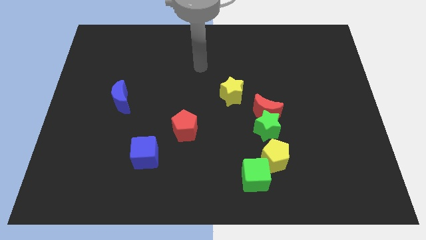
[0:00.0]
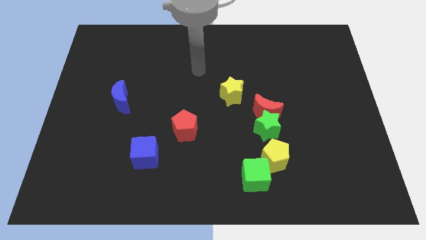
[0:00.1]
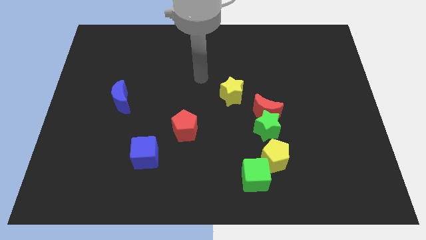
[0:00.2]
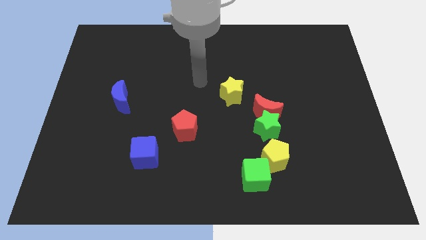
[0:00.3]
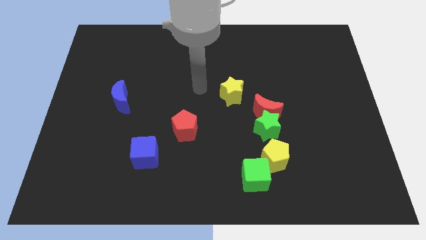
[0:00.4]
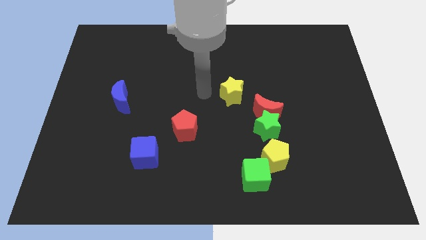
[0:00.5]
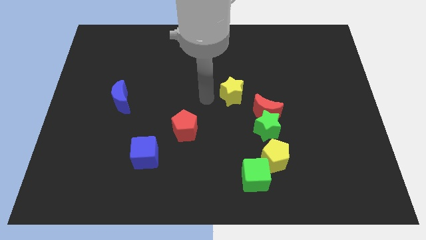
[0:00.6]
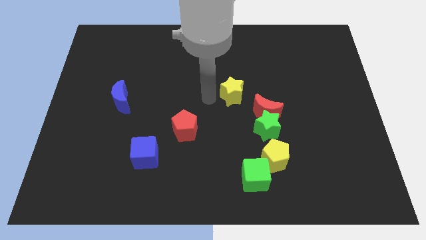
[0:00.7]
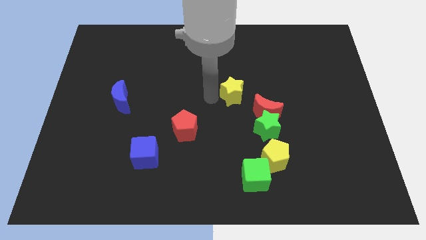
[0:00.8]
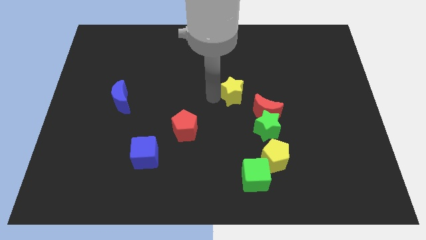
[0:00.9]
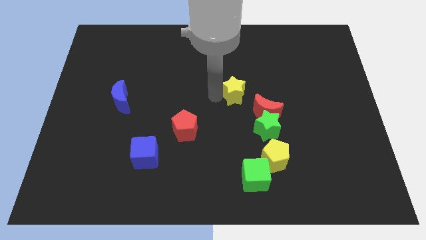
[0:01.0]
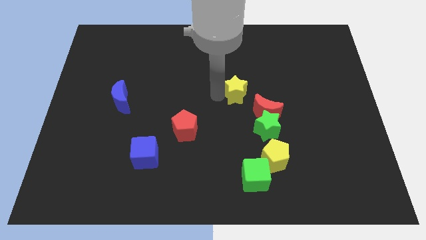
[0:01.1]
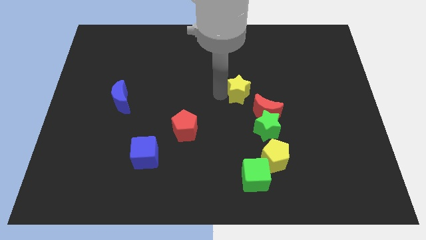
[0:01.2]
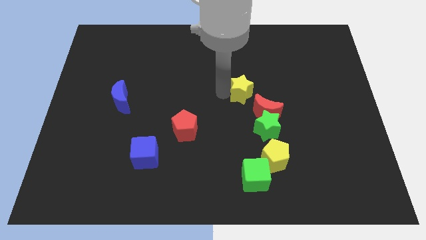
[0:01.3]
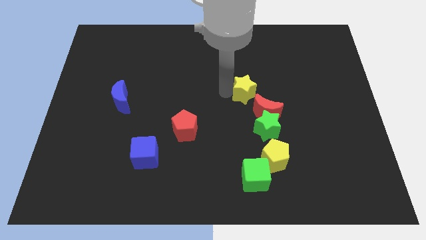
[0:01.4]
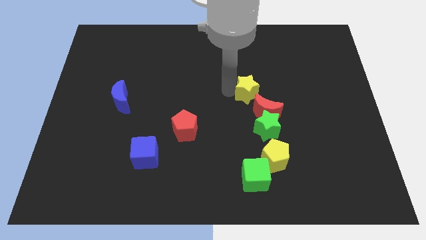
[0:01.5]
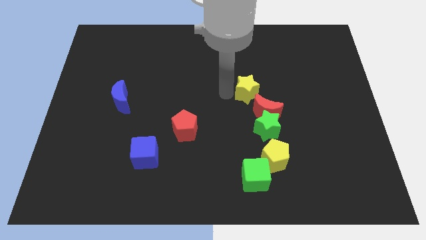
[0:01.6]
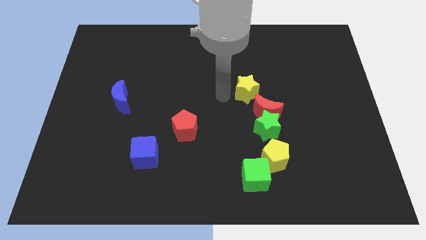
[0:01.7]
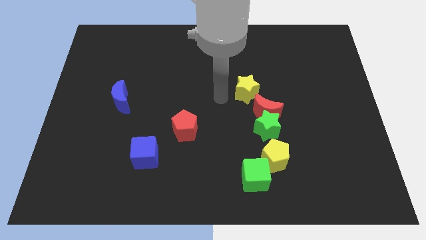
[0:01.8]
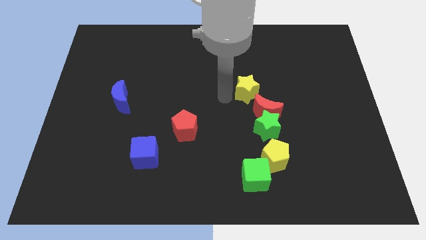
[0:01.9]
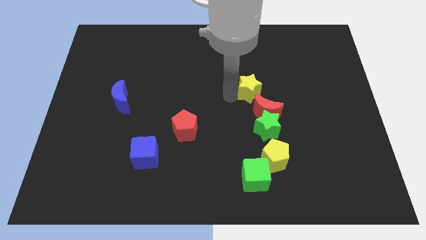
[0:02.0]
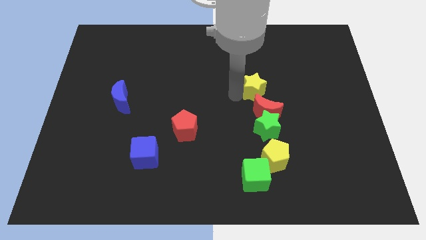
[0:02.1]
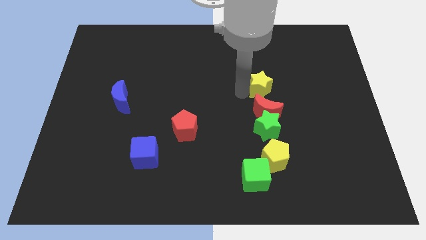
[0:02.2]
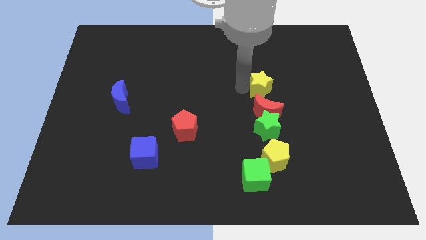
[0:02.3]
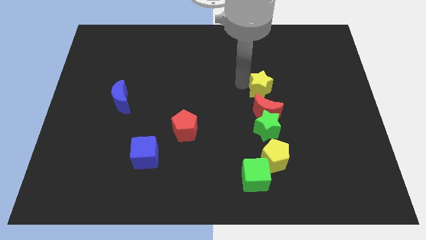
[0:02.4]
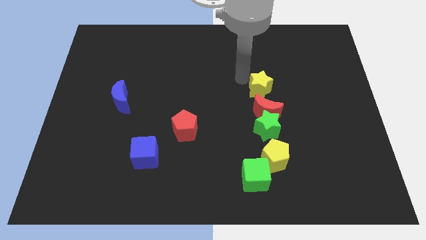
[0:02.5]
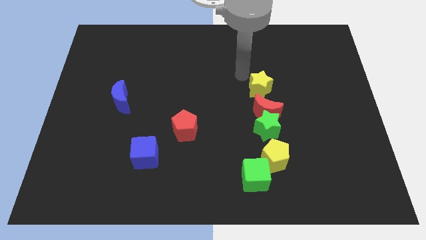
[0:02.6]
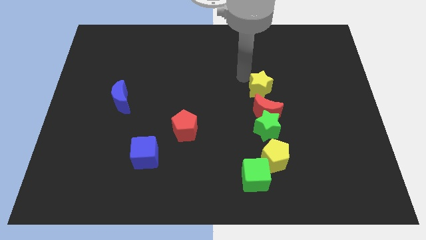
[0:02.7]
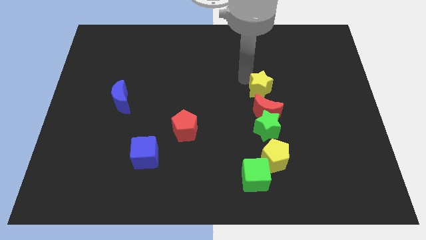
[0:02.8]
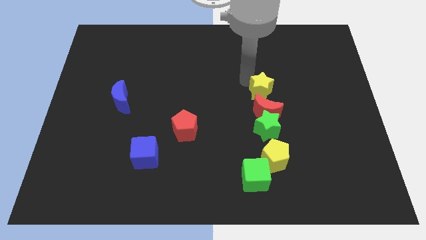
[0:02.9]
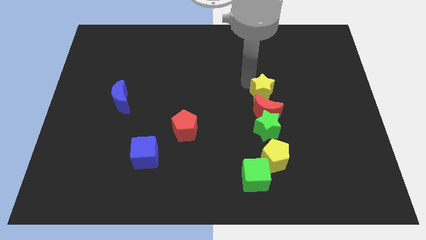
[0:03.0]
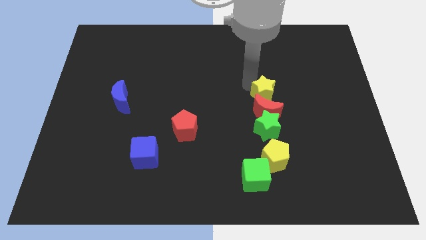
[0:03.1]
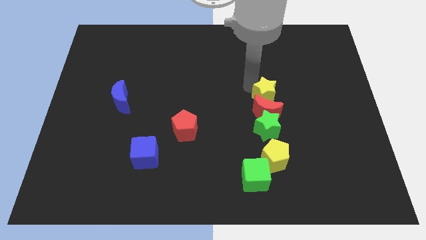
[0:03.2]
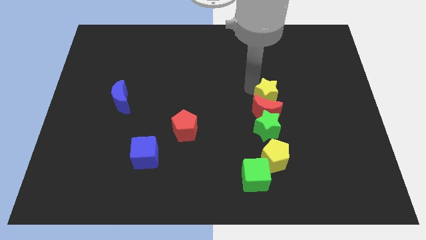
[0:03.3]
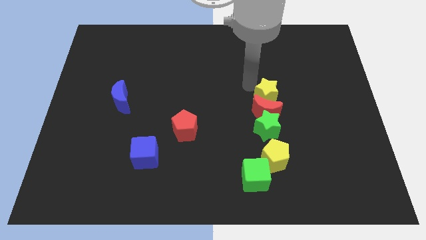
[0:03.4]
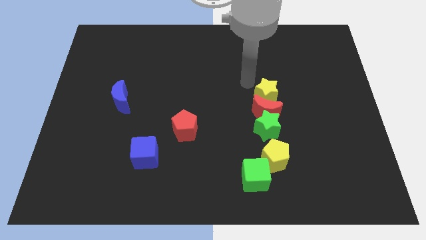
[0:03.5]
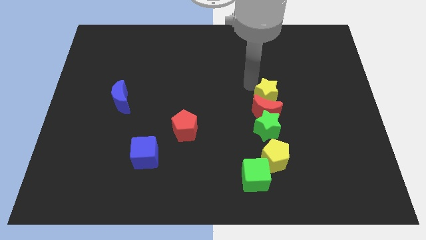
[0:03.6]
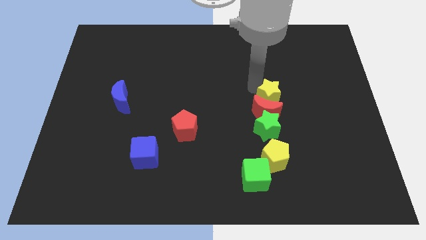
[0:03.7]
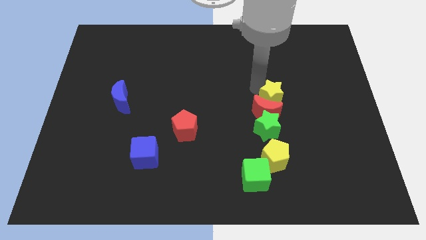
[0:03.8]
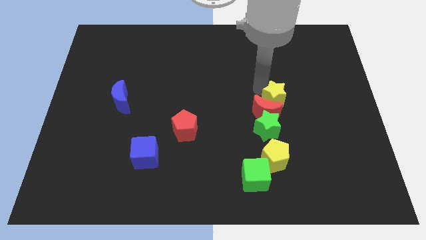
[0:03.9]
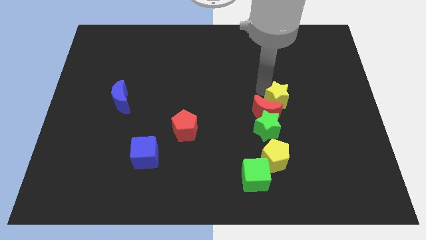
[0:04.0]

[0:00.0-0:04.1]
slightly move the yellow star down and to the right diagonally

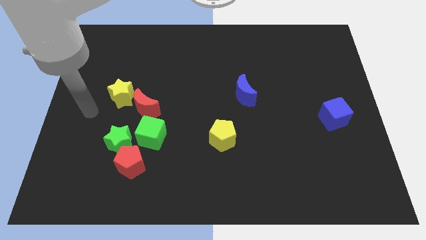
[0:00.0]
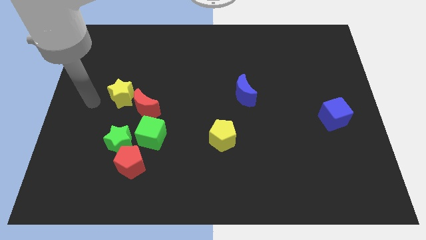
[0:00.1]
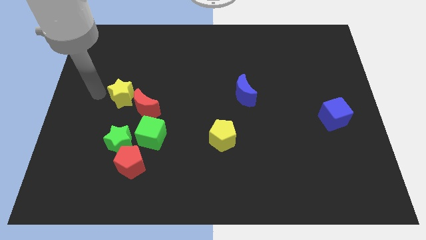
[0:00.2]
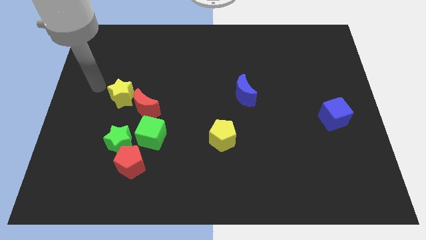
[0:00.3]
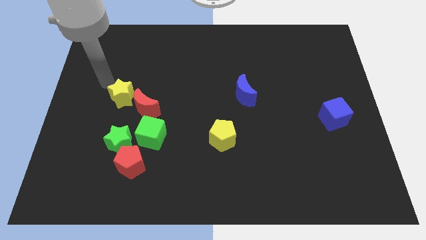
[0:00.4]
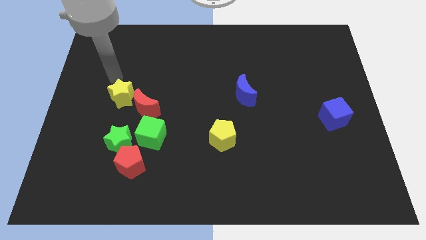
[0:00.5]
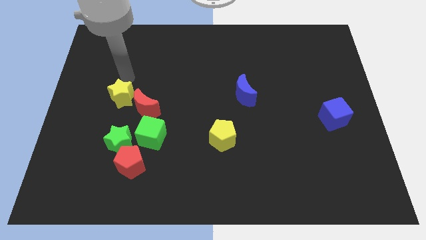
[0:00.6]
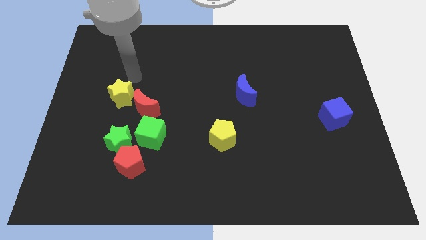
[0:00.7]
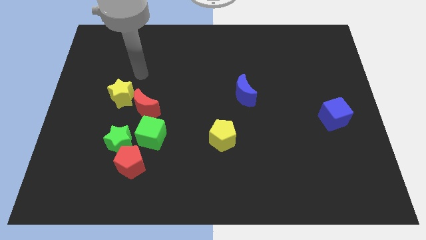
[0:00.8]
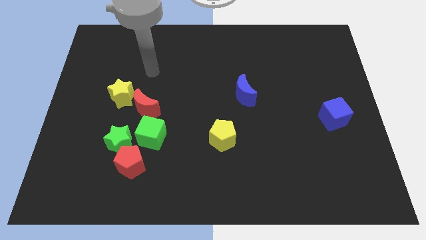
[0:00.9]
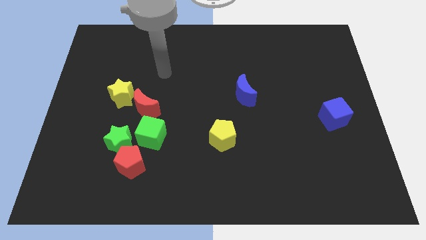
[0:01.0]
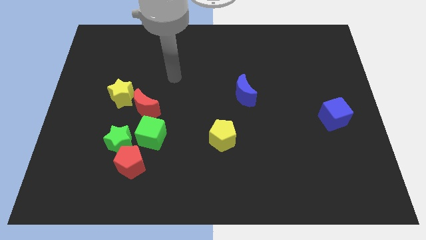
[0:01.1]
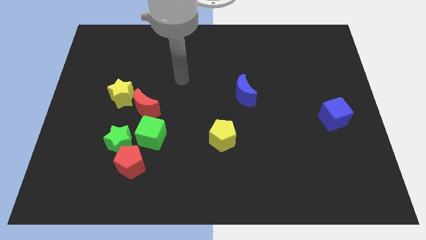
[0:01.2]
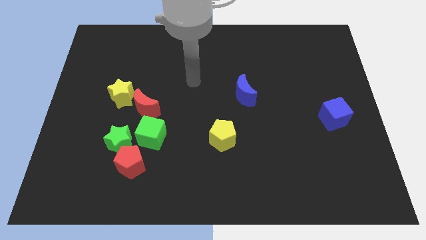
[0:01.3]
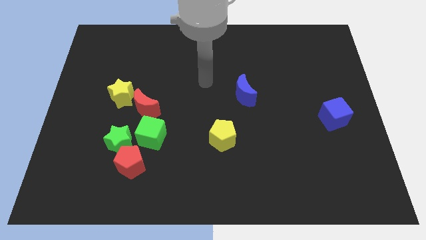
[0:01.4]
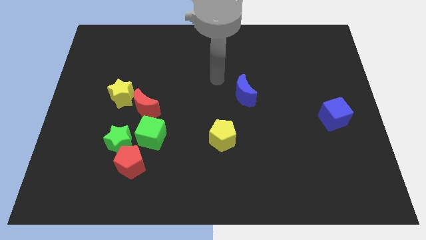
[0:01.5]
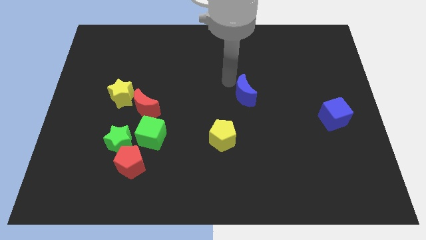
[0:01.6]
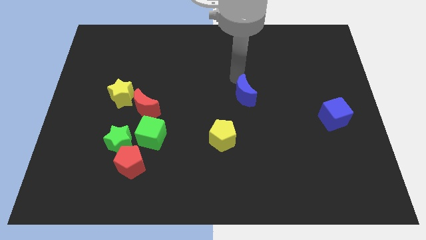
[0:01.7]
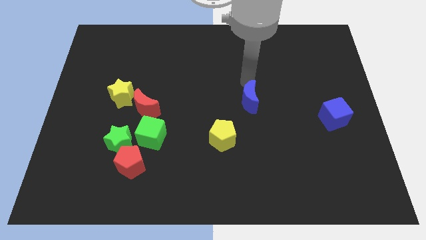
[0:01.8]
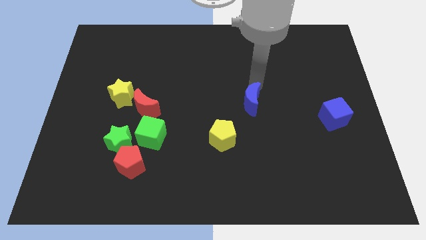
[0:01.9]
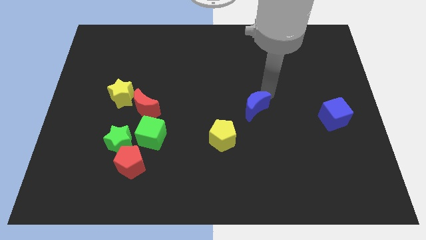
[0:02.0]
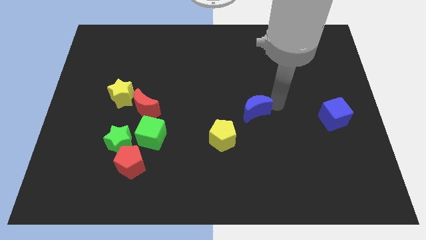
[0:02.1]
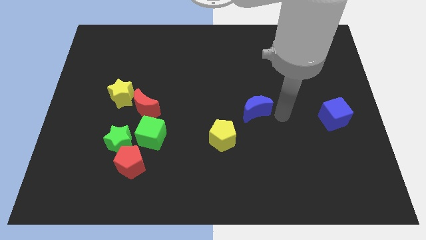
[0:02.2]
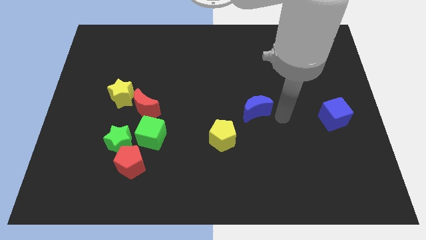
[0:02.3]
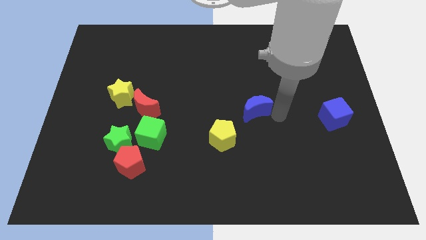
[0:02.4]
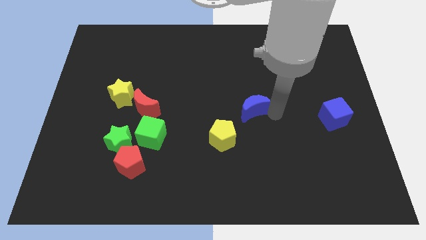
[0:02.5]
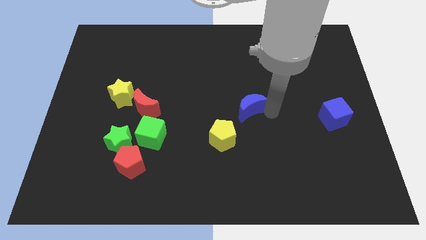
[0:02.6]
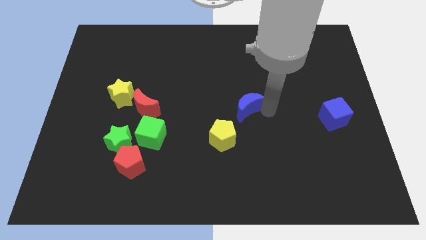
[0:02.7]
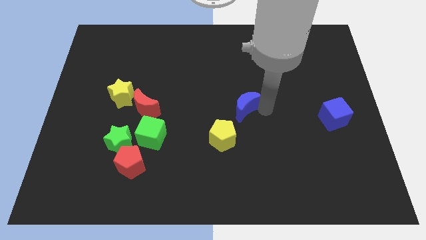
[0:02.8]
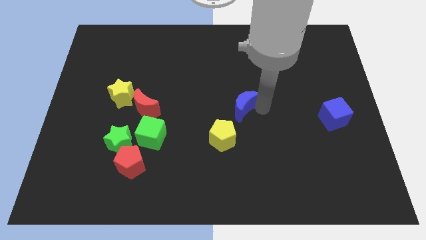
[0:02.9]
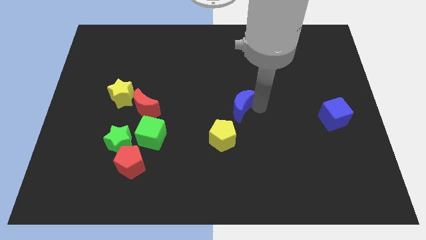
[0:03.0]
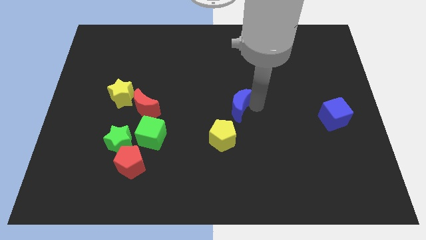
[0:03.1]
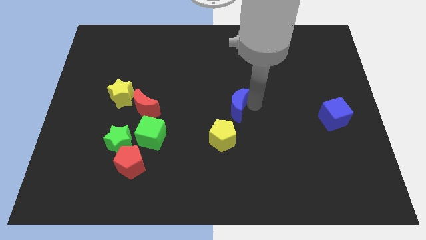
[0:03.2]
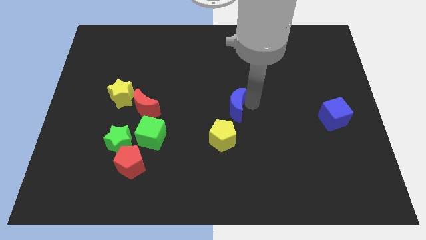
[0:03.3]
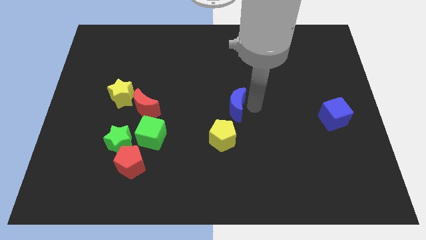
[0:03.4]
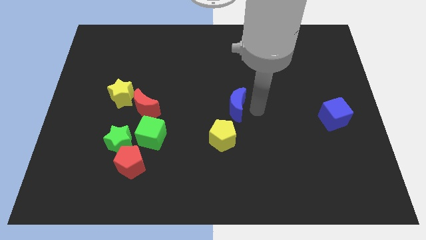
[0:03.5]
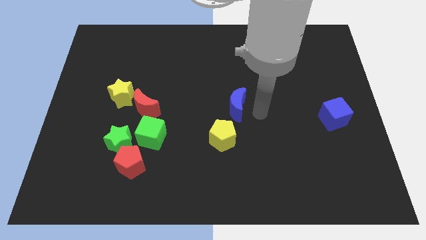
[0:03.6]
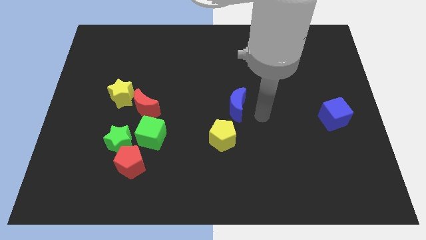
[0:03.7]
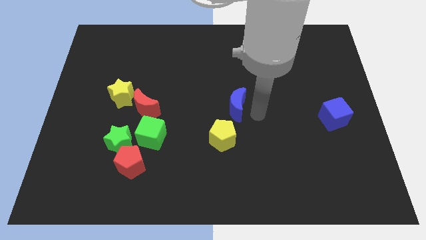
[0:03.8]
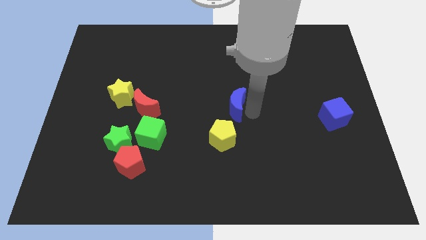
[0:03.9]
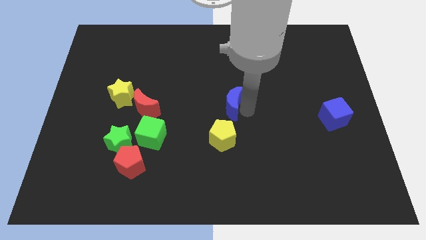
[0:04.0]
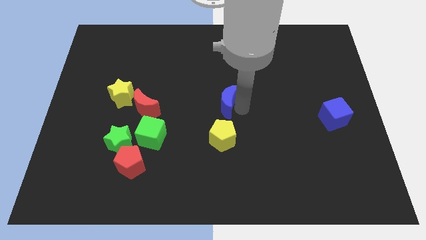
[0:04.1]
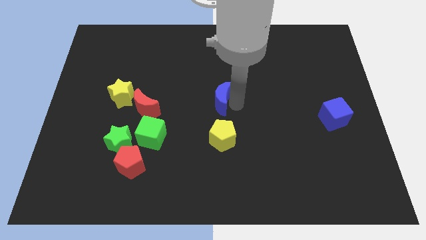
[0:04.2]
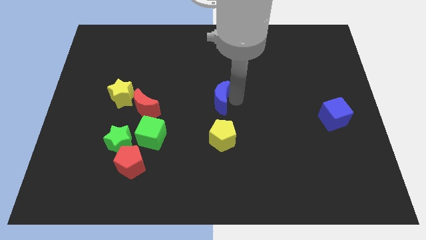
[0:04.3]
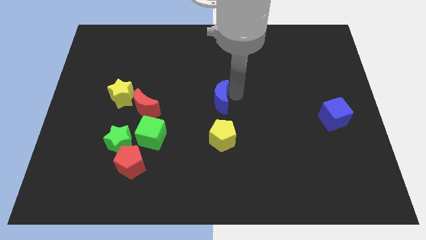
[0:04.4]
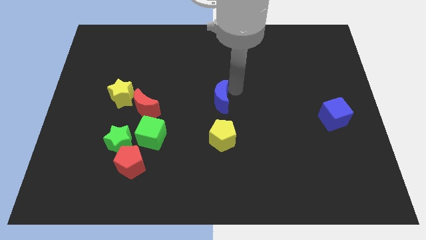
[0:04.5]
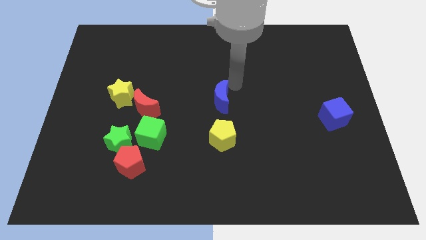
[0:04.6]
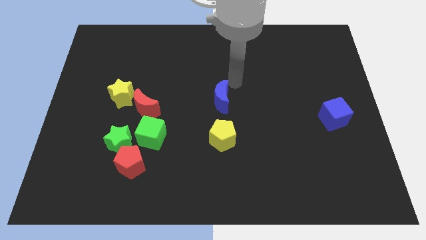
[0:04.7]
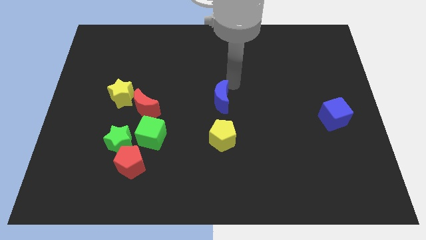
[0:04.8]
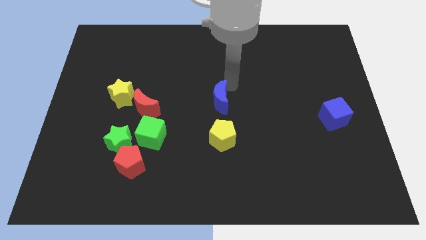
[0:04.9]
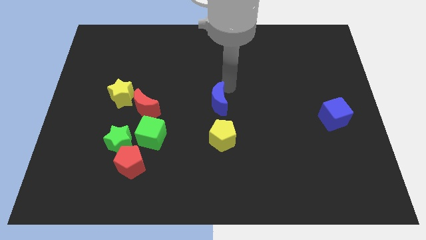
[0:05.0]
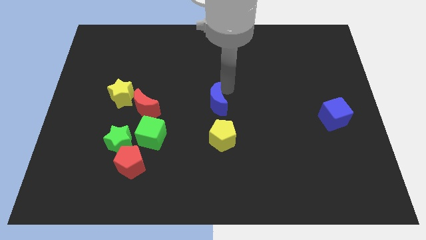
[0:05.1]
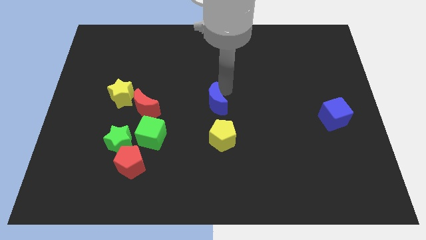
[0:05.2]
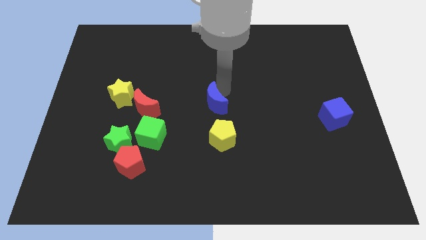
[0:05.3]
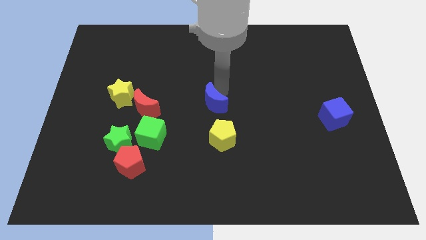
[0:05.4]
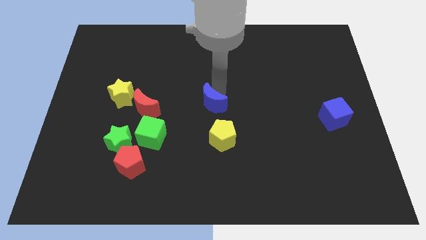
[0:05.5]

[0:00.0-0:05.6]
slide the blue moon downwards and left slightly
